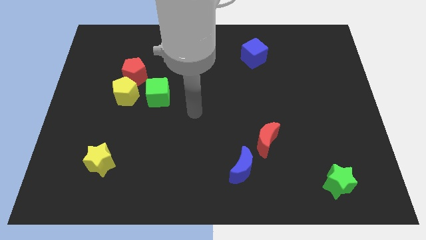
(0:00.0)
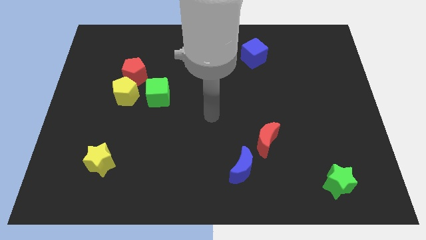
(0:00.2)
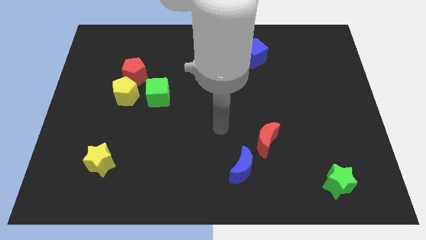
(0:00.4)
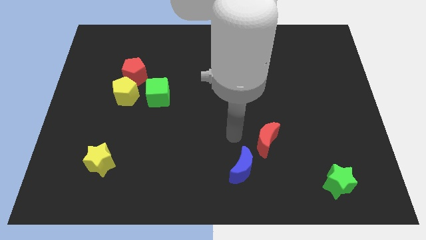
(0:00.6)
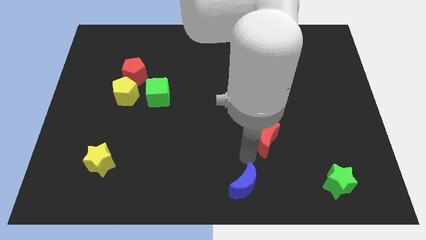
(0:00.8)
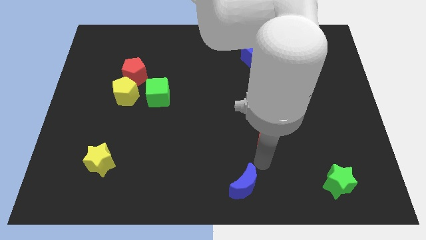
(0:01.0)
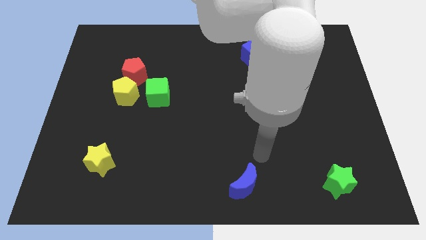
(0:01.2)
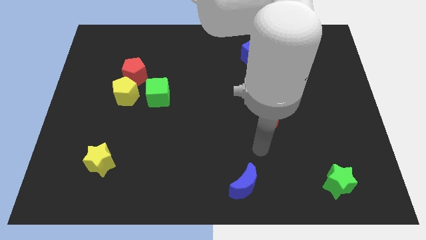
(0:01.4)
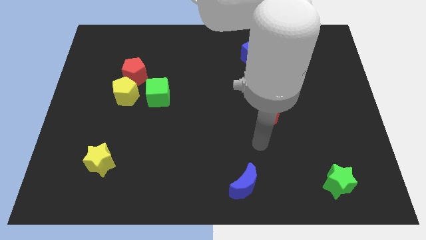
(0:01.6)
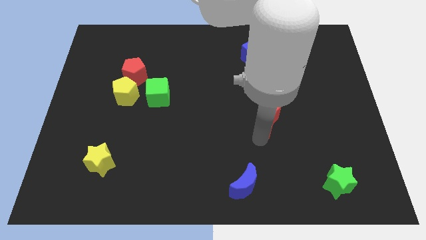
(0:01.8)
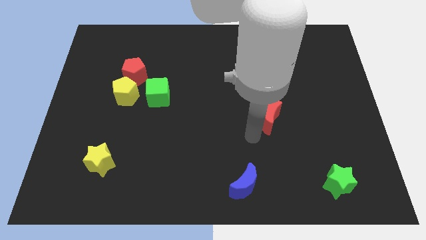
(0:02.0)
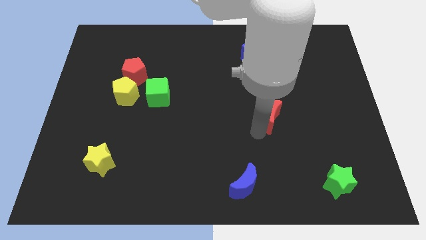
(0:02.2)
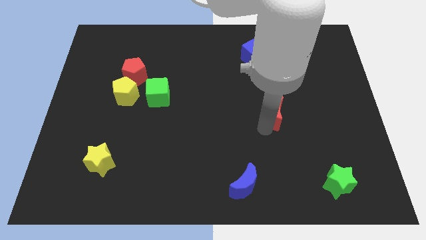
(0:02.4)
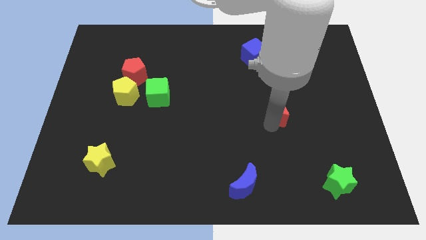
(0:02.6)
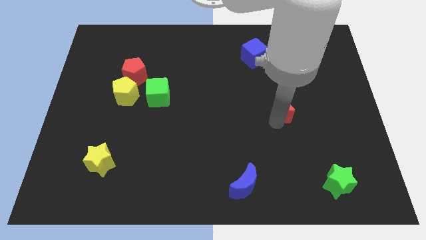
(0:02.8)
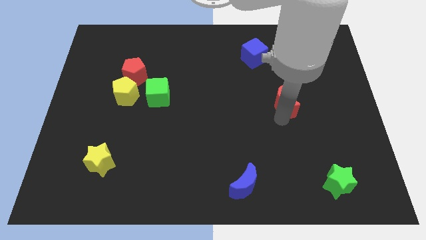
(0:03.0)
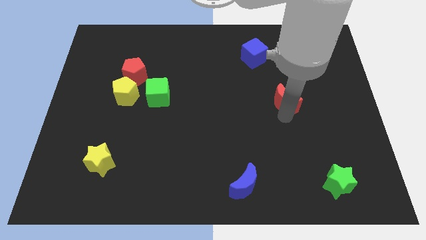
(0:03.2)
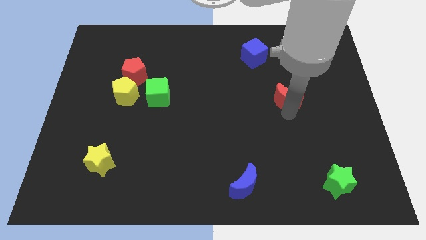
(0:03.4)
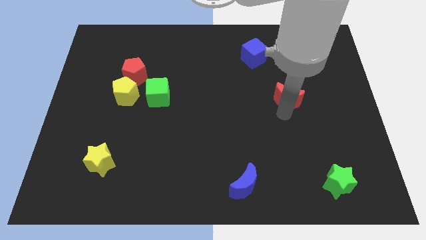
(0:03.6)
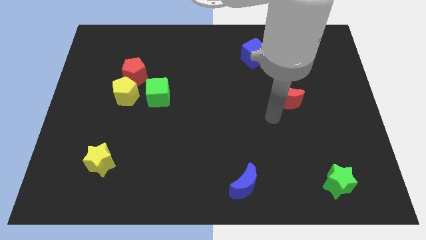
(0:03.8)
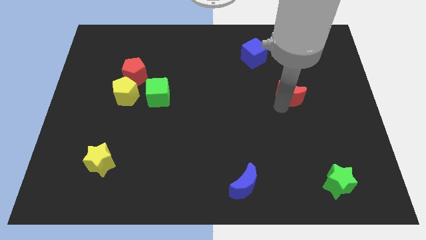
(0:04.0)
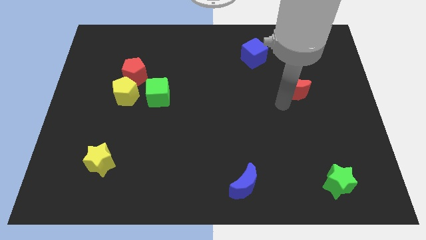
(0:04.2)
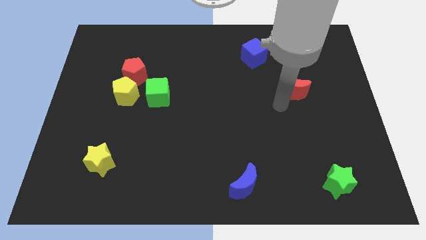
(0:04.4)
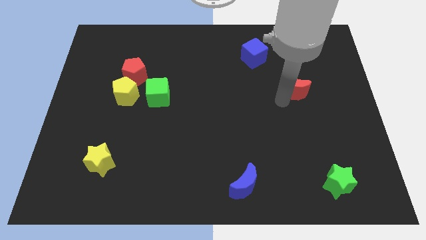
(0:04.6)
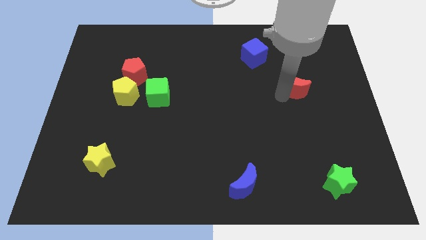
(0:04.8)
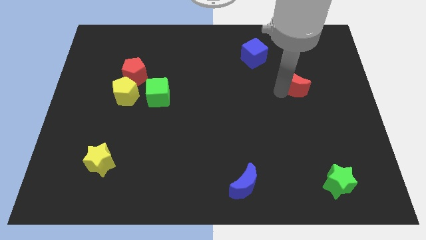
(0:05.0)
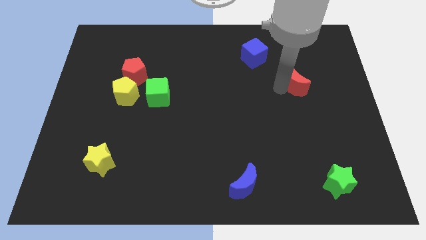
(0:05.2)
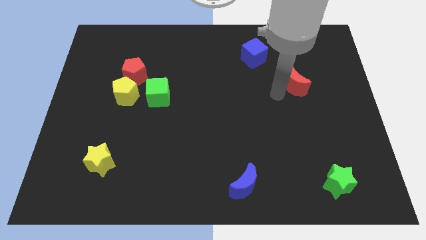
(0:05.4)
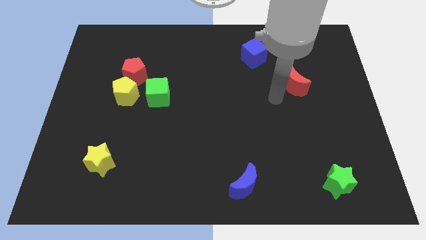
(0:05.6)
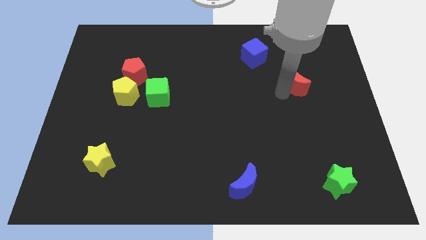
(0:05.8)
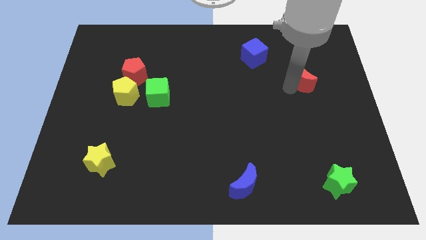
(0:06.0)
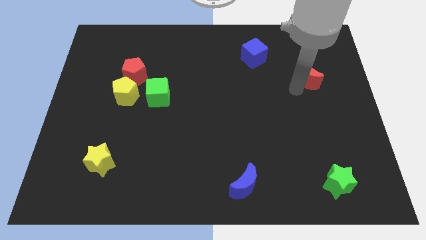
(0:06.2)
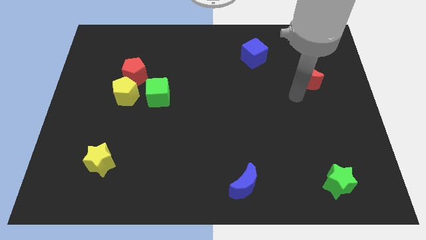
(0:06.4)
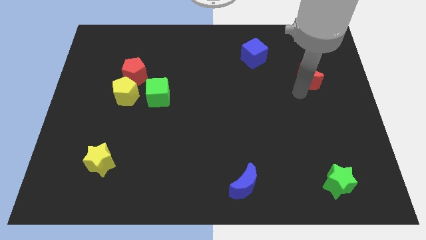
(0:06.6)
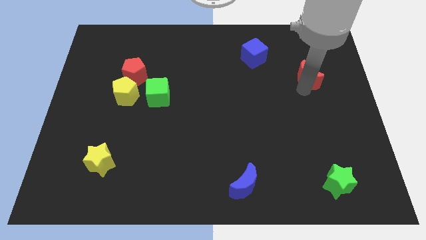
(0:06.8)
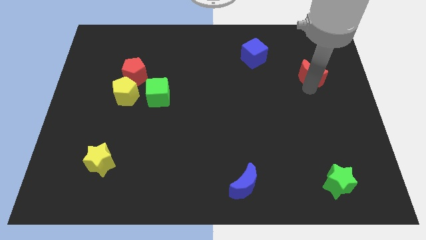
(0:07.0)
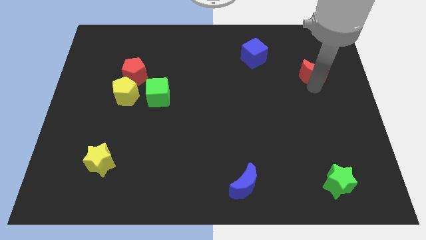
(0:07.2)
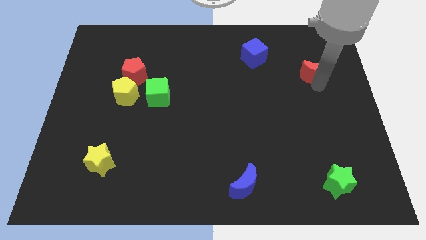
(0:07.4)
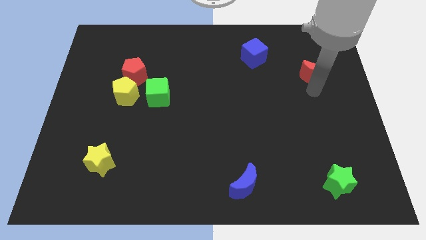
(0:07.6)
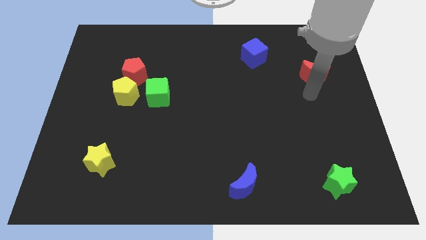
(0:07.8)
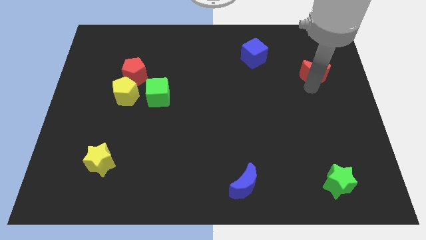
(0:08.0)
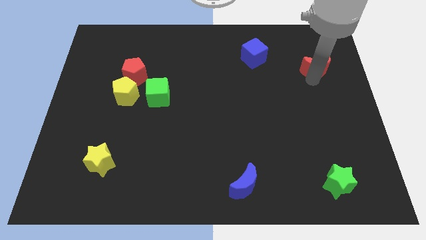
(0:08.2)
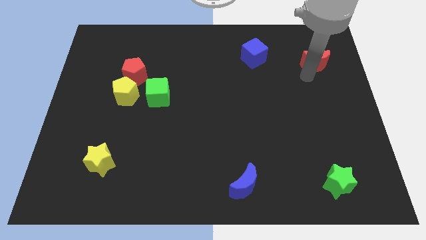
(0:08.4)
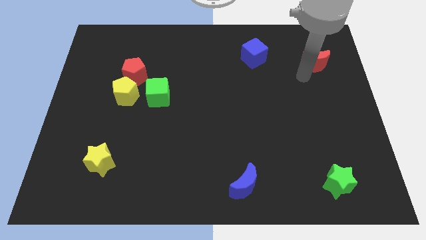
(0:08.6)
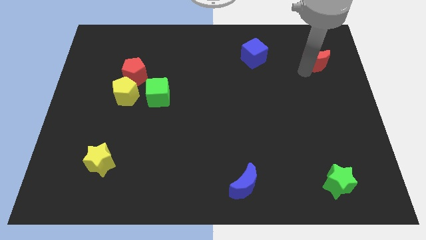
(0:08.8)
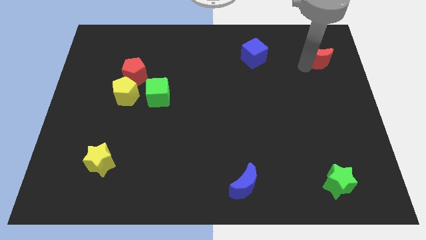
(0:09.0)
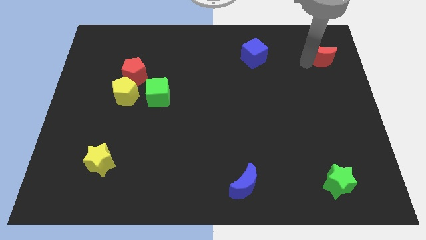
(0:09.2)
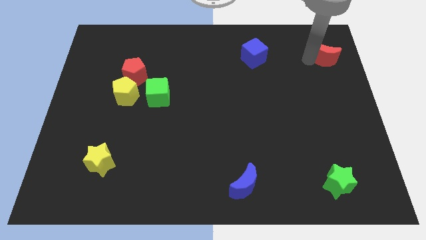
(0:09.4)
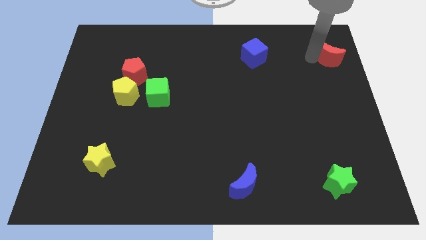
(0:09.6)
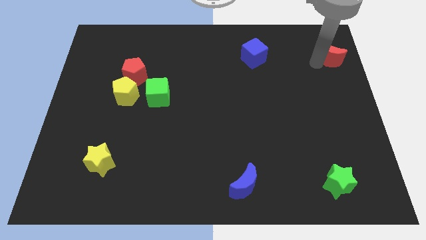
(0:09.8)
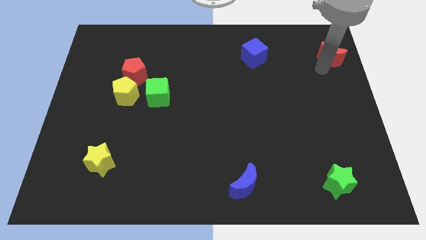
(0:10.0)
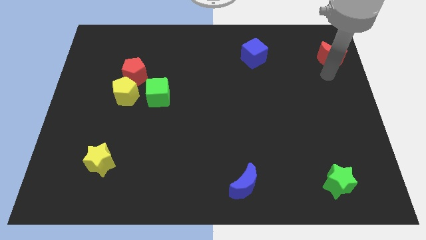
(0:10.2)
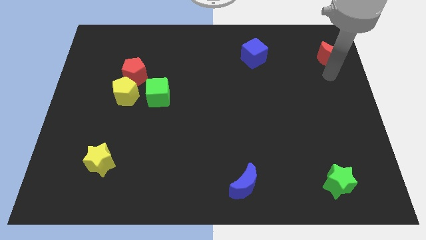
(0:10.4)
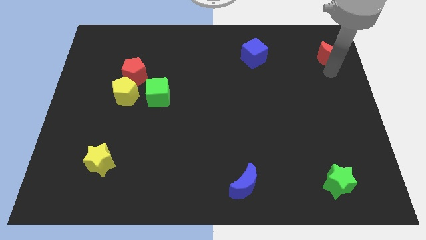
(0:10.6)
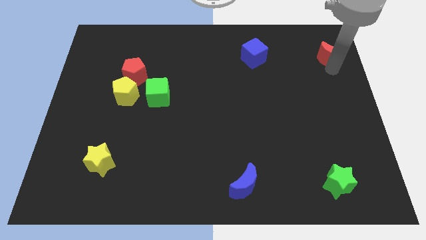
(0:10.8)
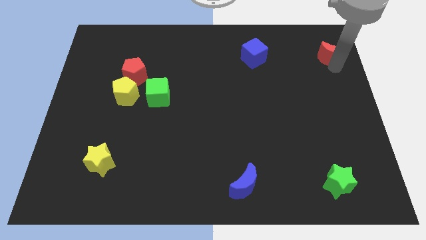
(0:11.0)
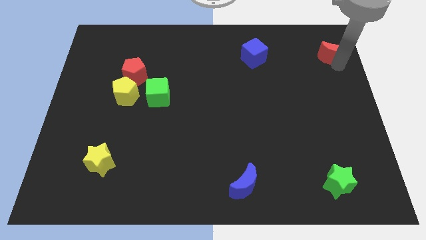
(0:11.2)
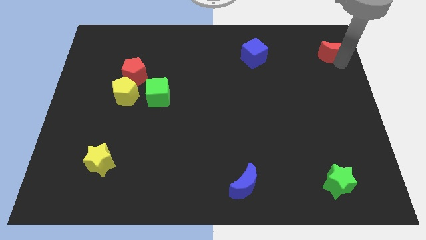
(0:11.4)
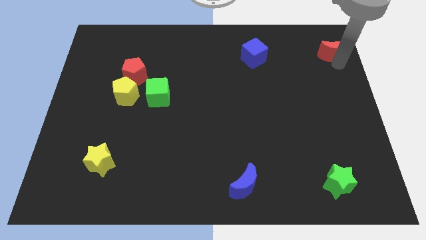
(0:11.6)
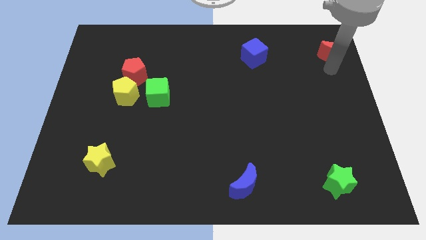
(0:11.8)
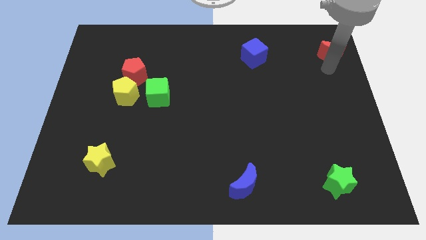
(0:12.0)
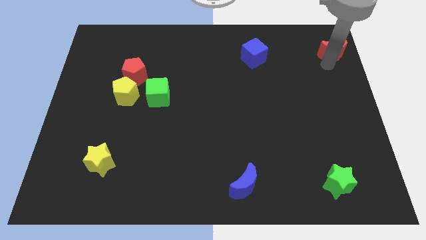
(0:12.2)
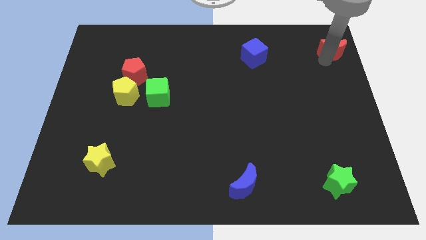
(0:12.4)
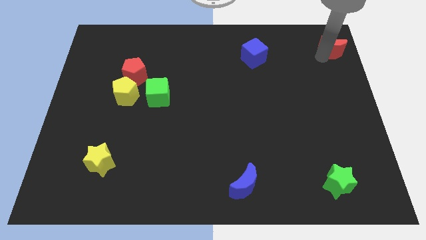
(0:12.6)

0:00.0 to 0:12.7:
slide the red moon to the upper right corner
